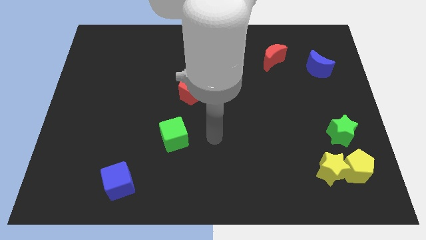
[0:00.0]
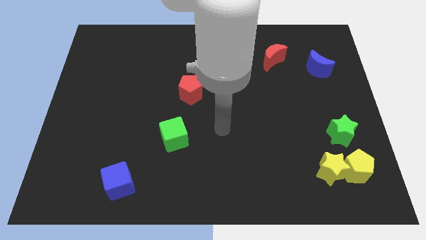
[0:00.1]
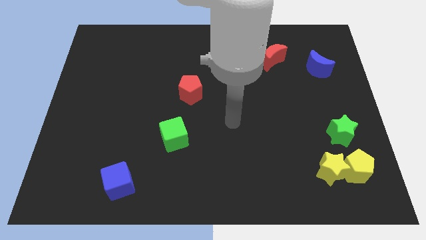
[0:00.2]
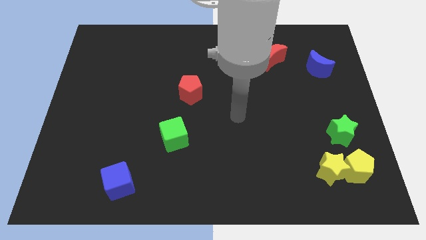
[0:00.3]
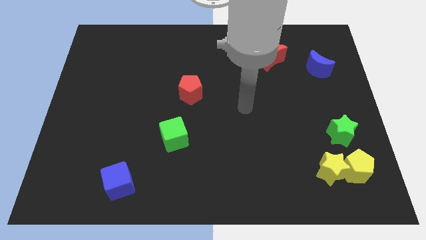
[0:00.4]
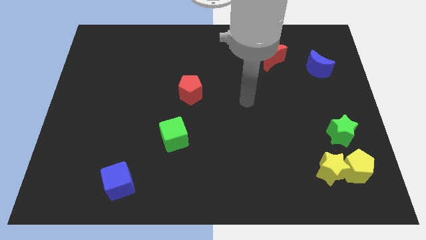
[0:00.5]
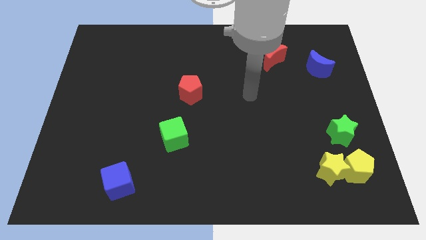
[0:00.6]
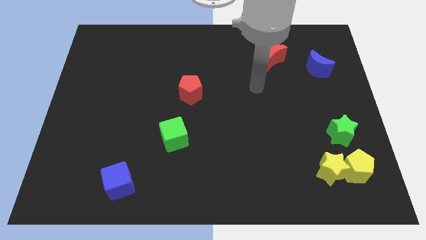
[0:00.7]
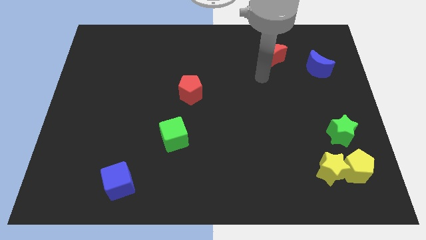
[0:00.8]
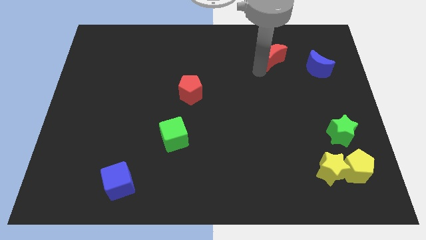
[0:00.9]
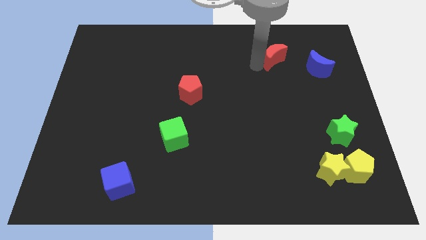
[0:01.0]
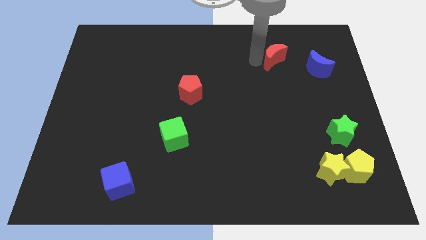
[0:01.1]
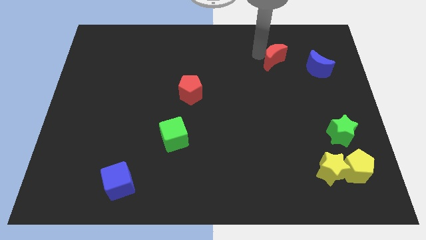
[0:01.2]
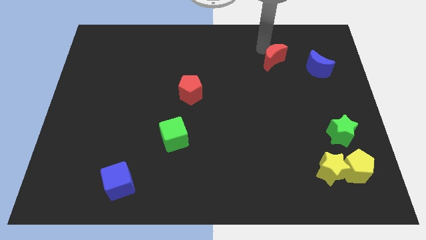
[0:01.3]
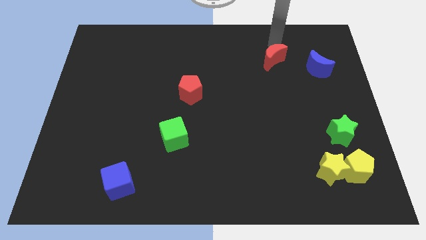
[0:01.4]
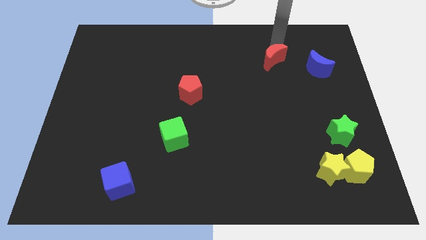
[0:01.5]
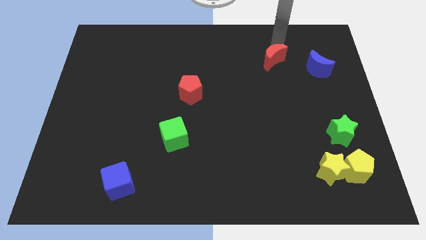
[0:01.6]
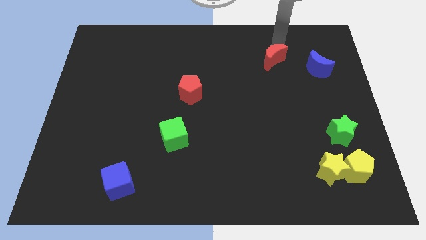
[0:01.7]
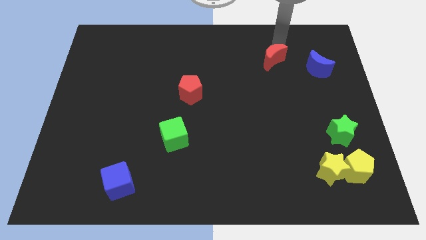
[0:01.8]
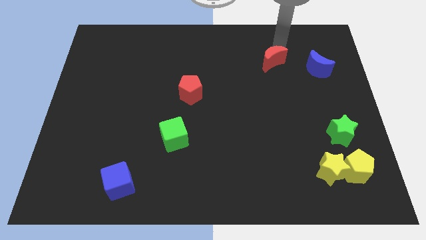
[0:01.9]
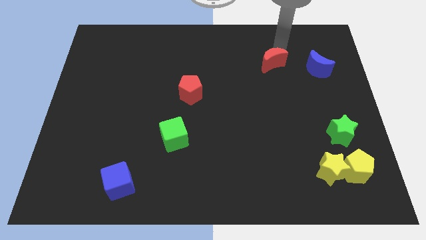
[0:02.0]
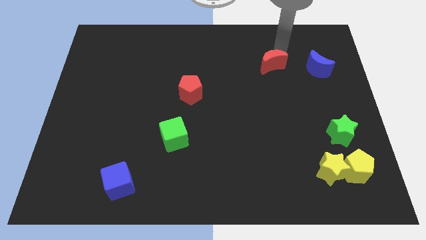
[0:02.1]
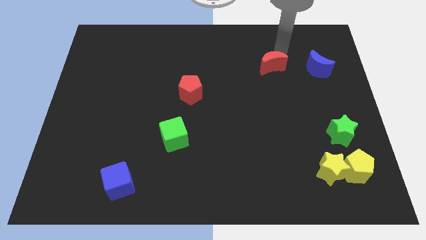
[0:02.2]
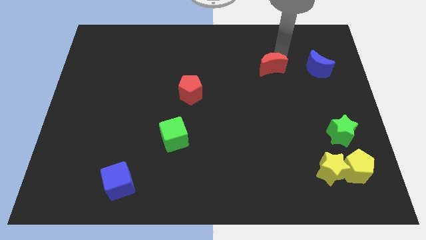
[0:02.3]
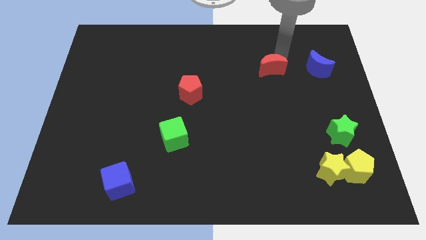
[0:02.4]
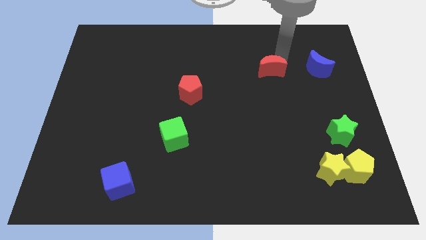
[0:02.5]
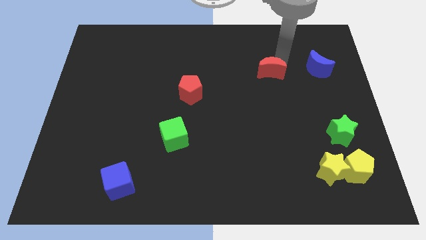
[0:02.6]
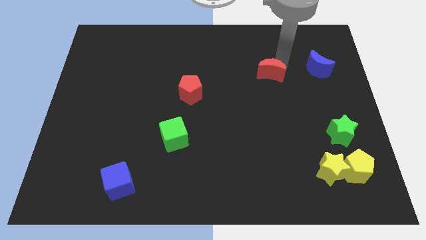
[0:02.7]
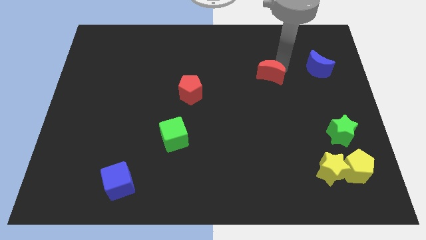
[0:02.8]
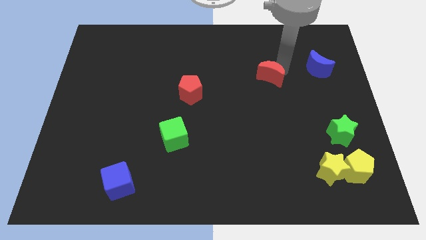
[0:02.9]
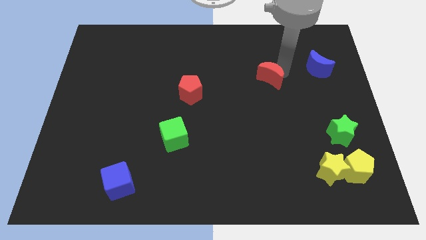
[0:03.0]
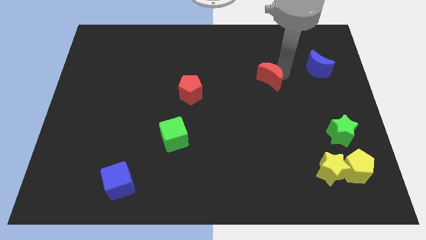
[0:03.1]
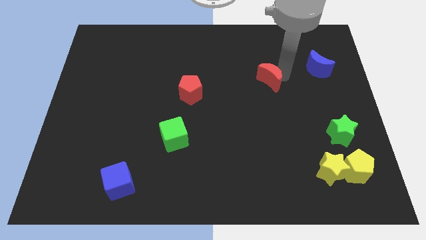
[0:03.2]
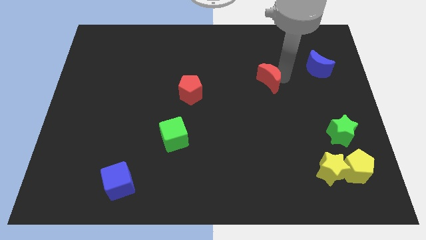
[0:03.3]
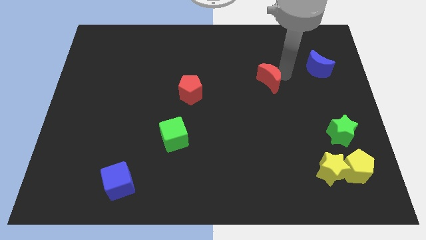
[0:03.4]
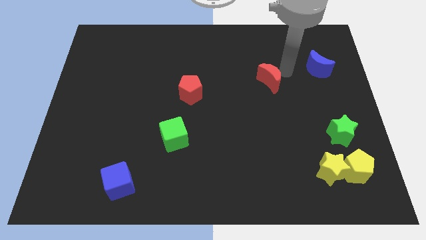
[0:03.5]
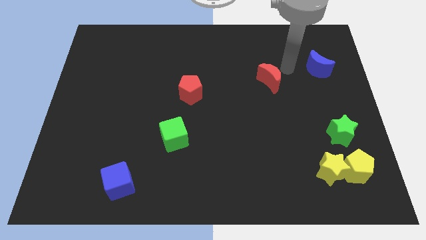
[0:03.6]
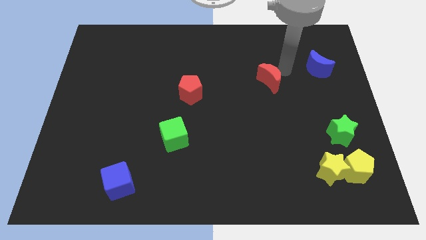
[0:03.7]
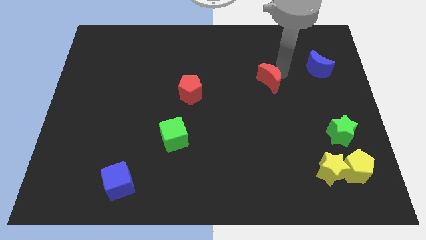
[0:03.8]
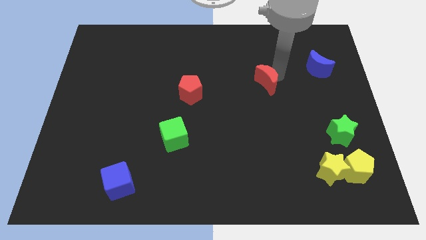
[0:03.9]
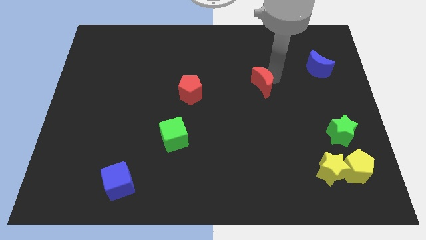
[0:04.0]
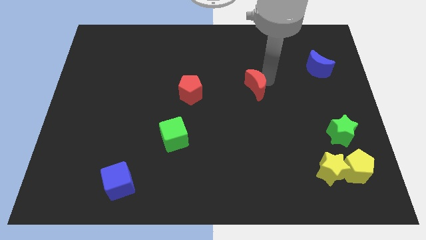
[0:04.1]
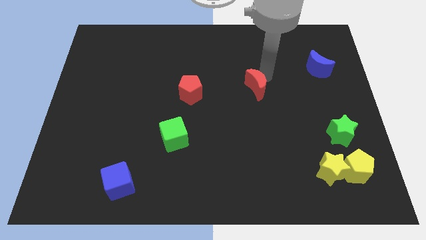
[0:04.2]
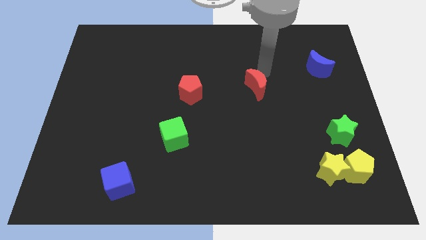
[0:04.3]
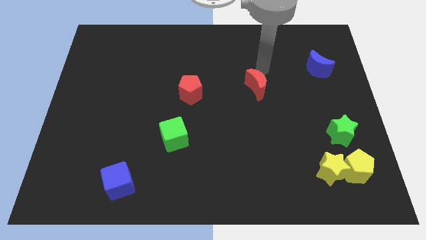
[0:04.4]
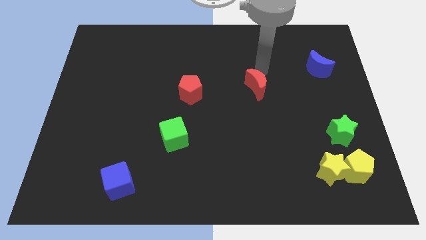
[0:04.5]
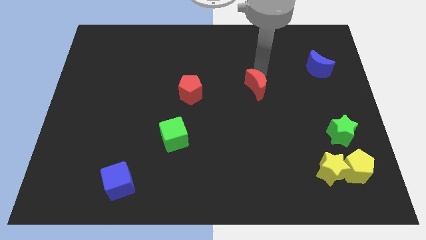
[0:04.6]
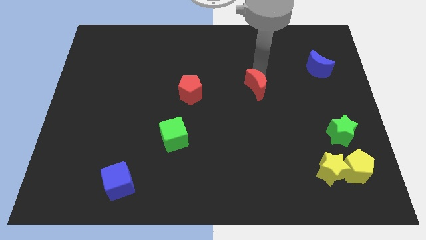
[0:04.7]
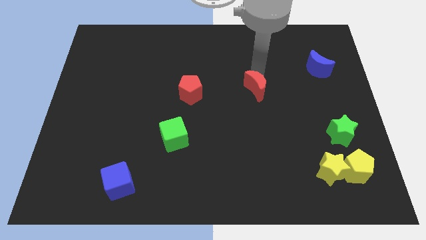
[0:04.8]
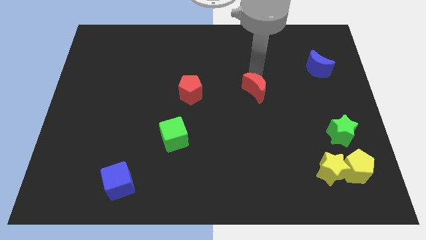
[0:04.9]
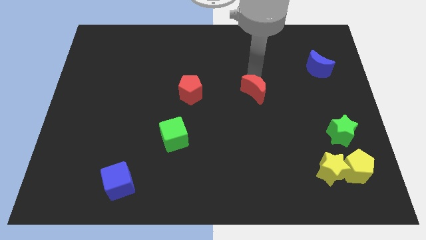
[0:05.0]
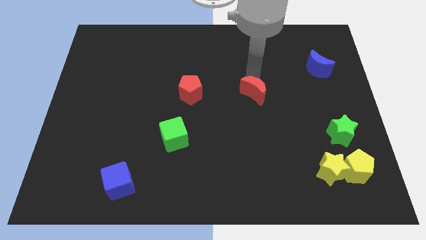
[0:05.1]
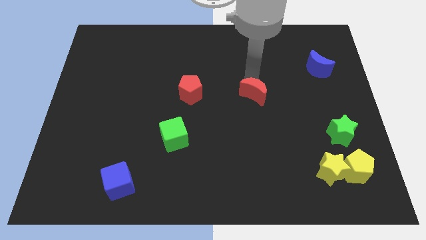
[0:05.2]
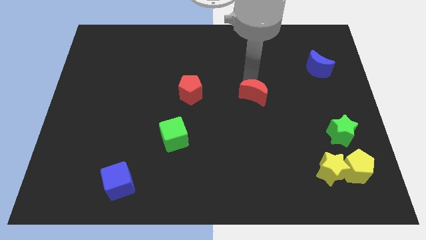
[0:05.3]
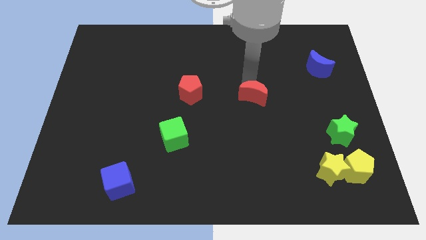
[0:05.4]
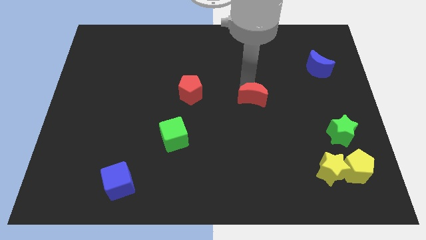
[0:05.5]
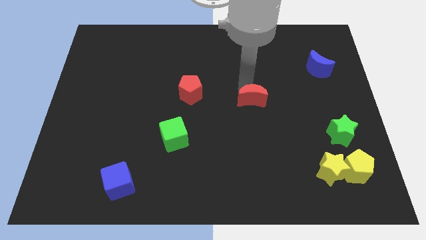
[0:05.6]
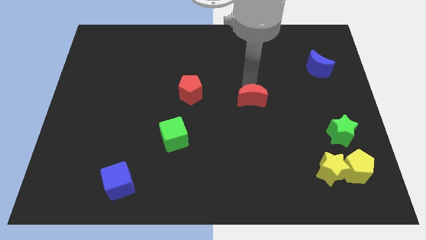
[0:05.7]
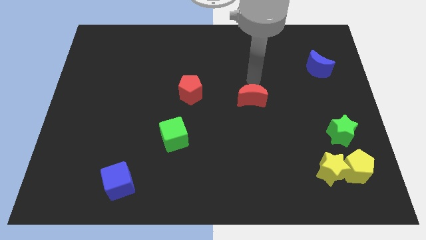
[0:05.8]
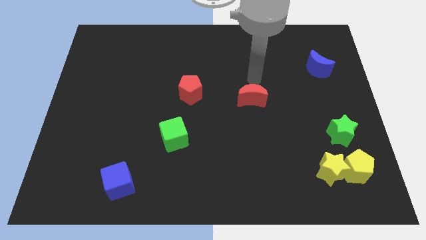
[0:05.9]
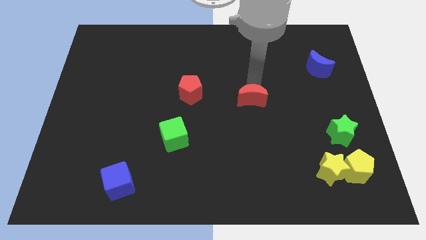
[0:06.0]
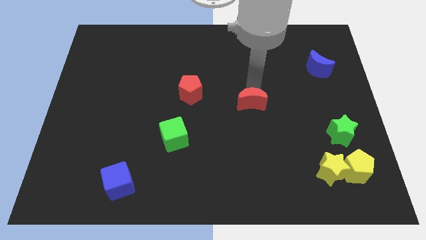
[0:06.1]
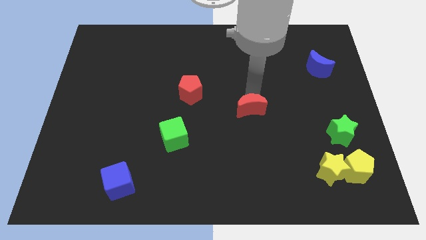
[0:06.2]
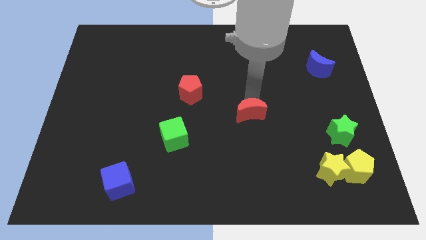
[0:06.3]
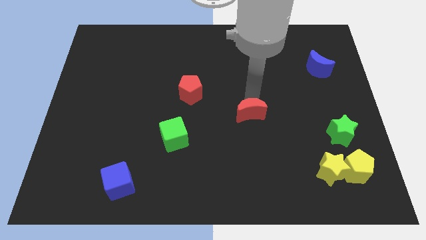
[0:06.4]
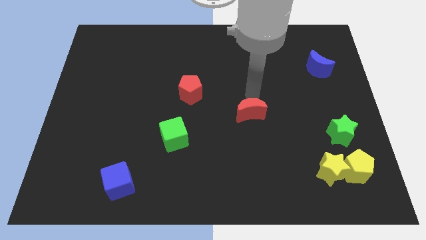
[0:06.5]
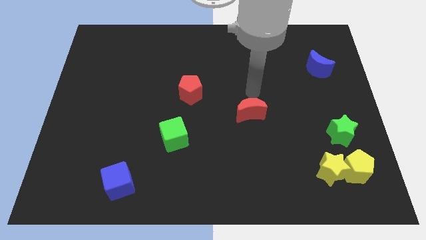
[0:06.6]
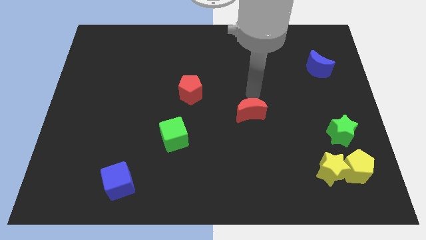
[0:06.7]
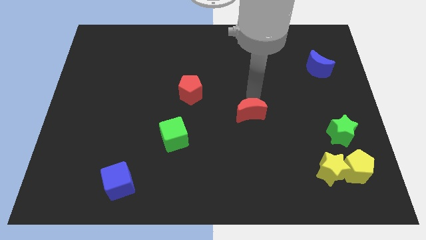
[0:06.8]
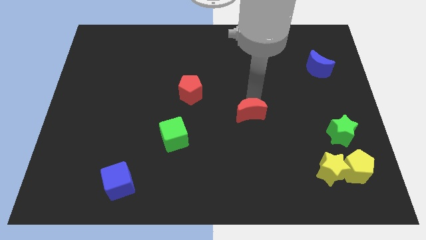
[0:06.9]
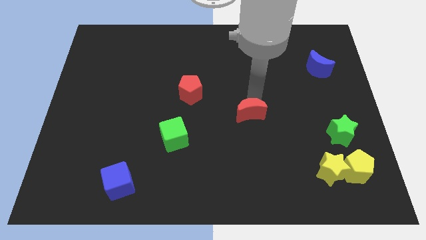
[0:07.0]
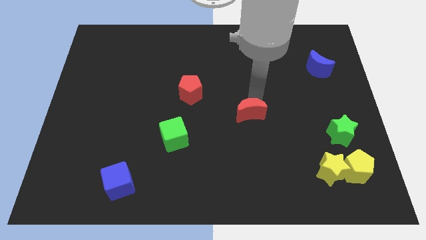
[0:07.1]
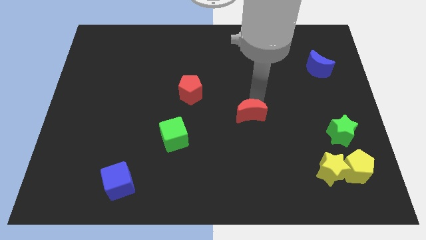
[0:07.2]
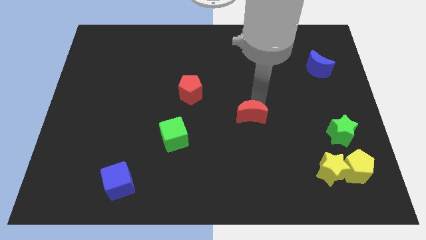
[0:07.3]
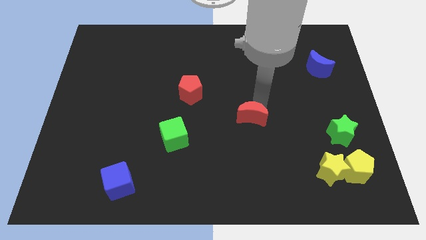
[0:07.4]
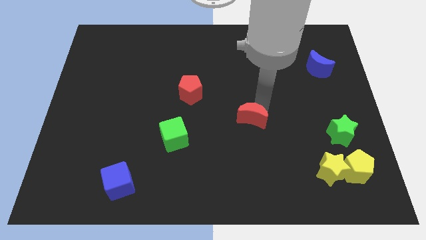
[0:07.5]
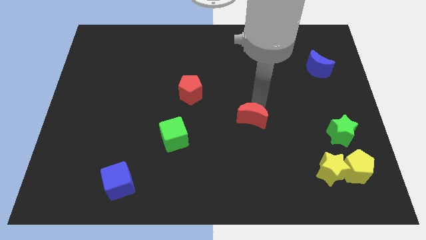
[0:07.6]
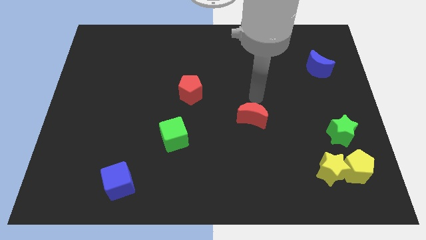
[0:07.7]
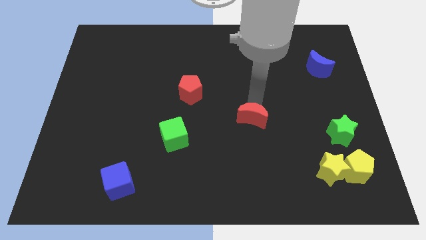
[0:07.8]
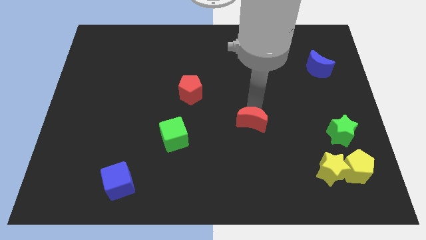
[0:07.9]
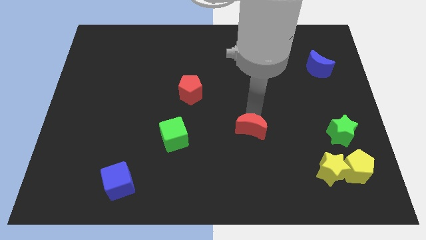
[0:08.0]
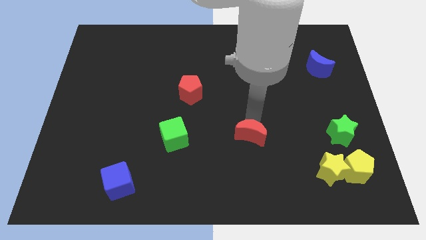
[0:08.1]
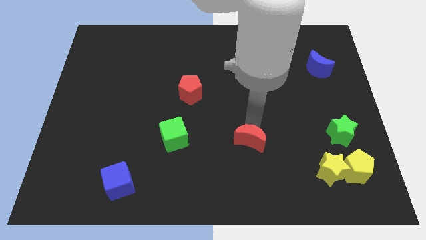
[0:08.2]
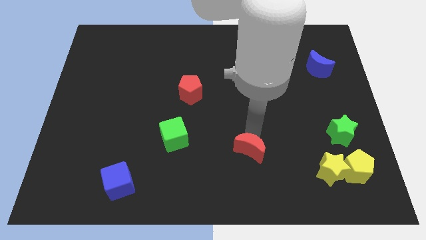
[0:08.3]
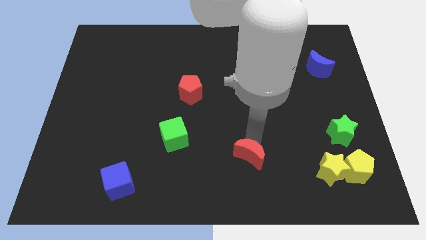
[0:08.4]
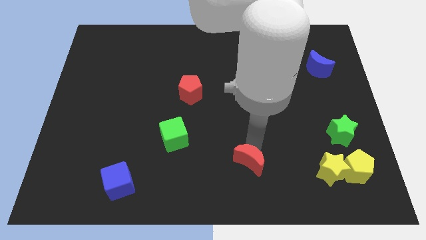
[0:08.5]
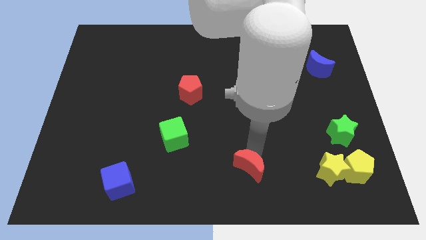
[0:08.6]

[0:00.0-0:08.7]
move the red moon to the bottom
